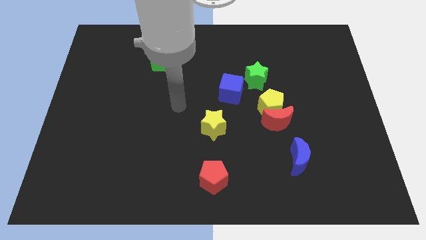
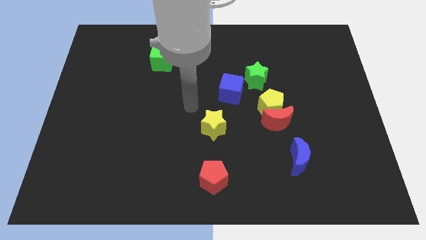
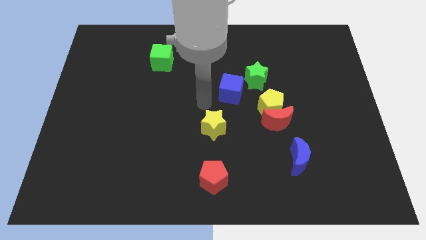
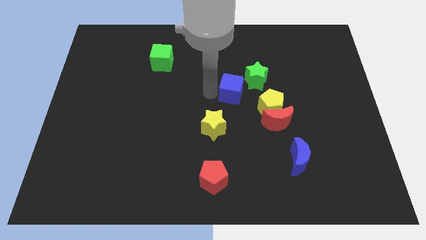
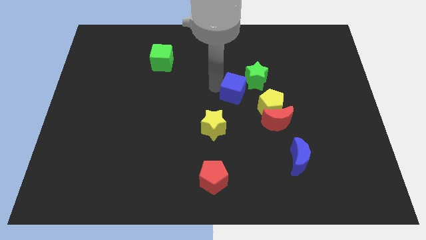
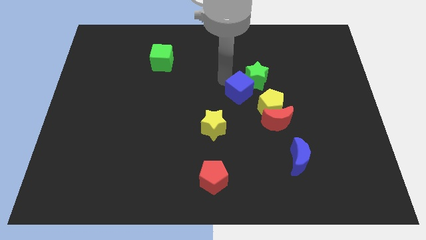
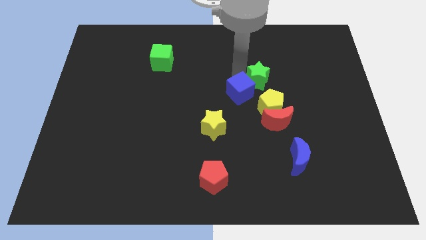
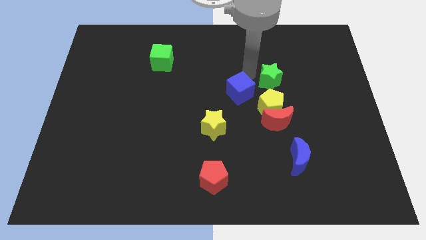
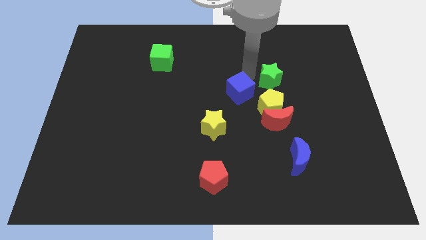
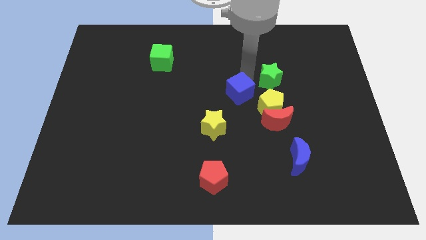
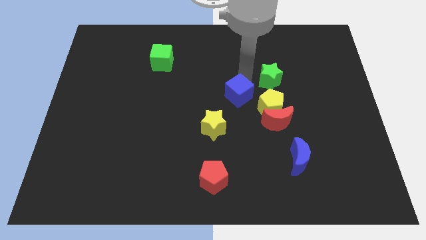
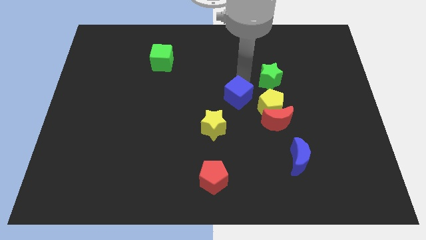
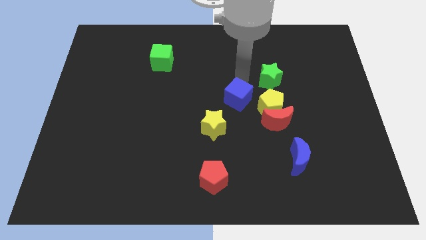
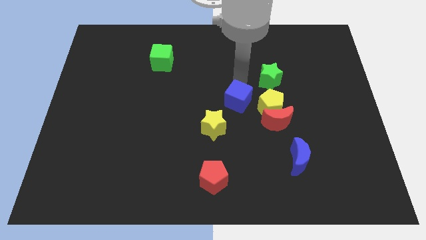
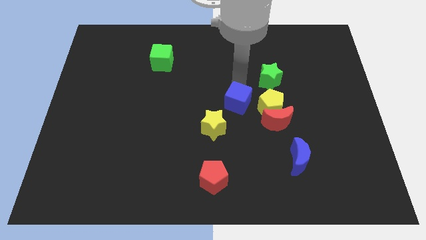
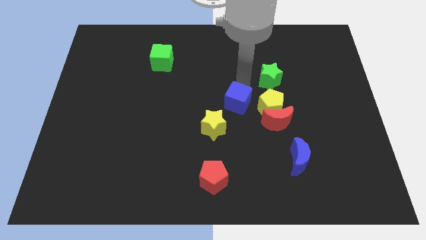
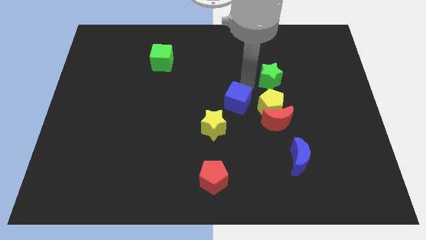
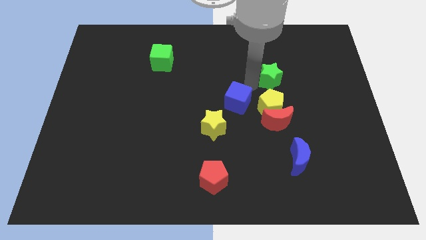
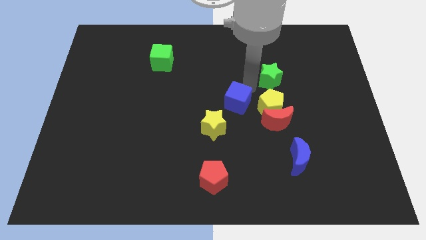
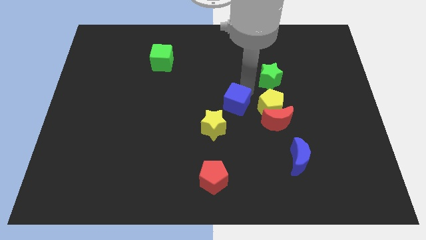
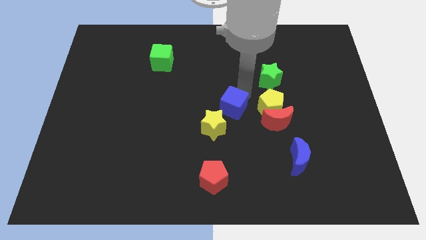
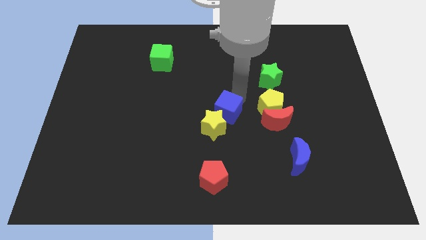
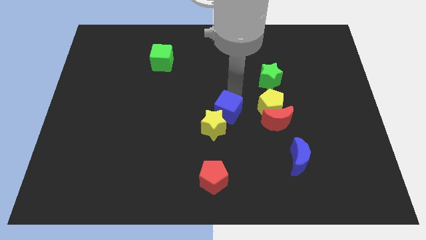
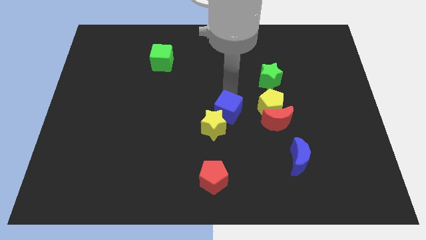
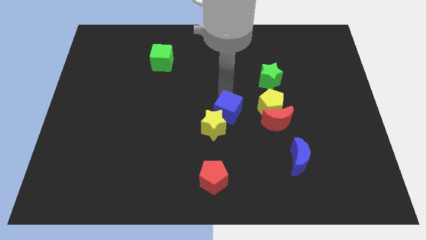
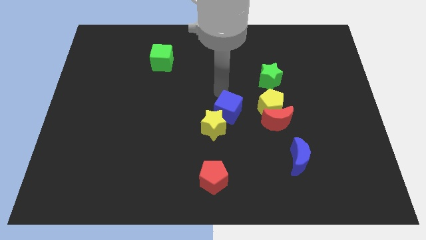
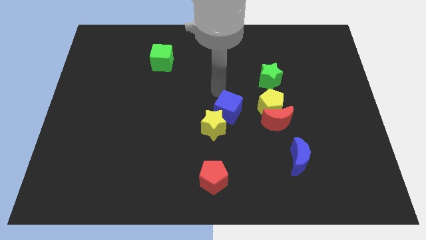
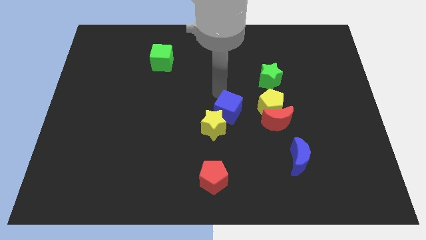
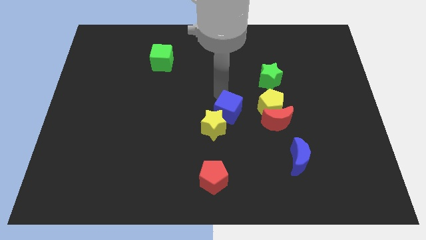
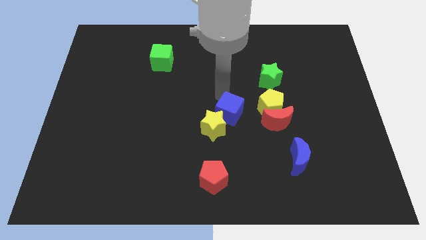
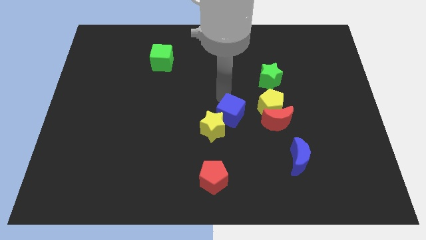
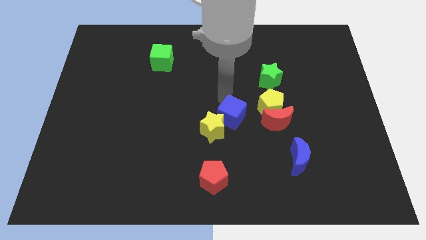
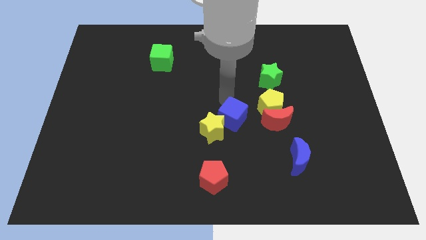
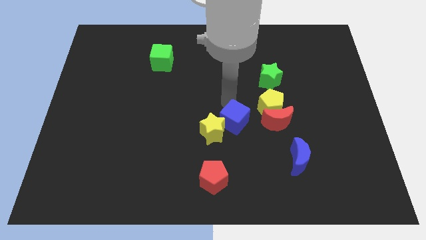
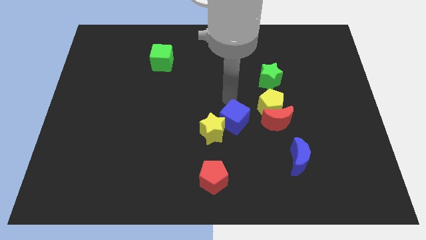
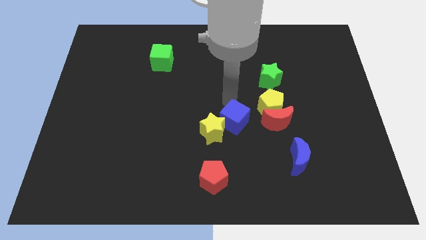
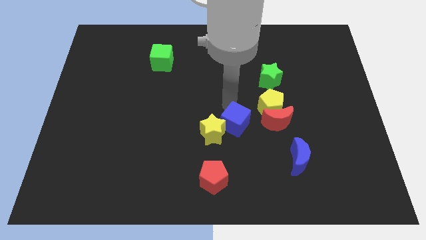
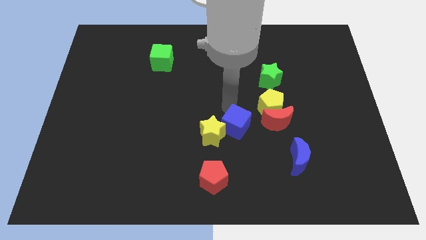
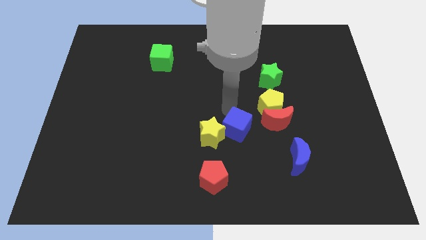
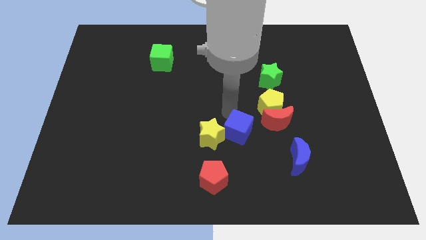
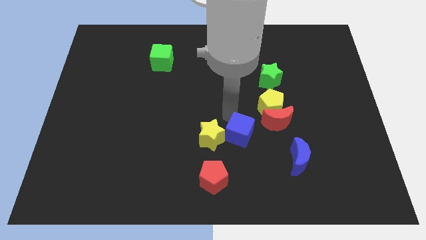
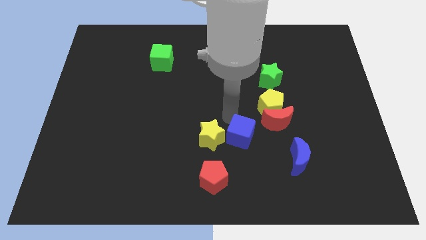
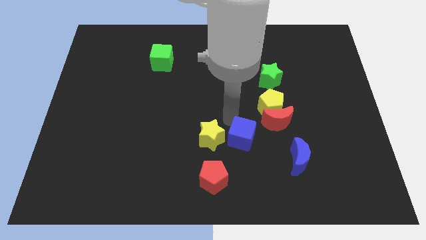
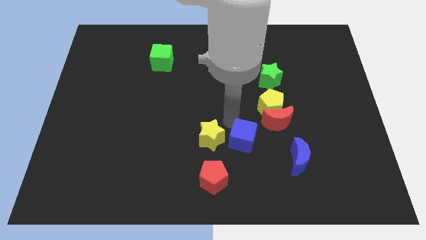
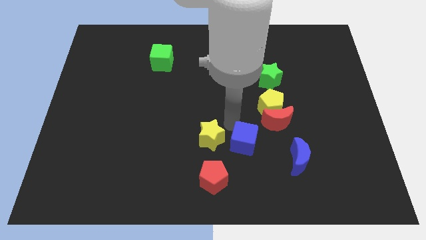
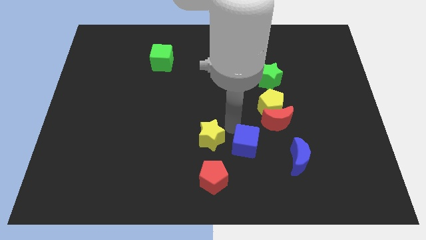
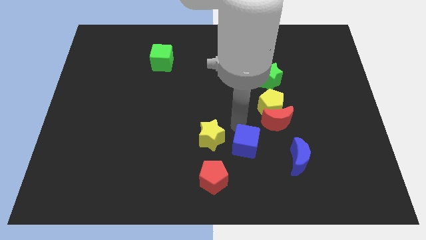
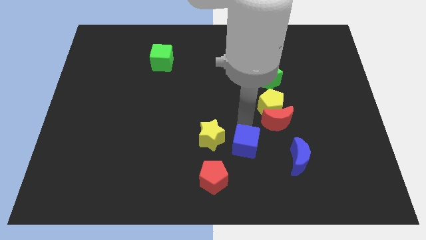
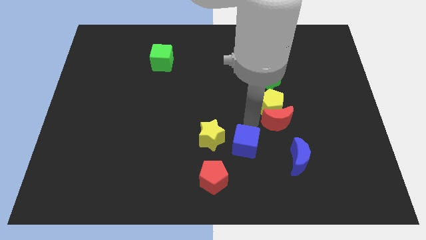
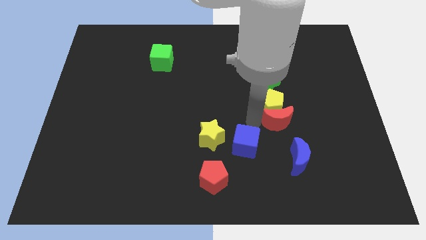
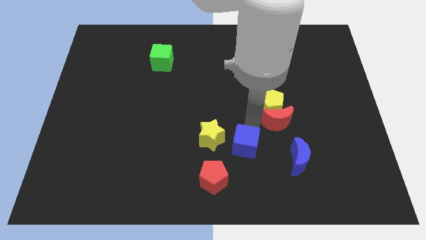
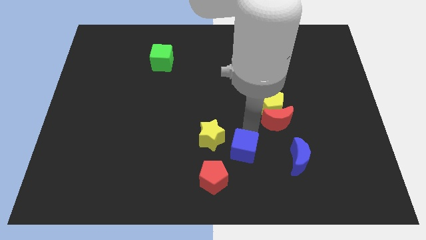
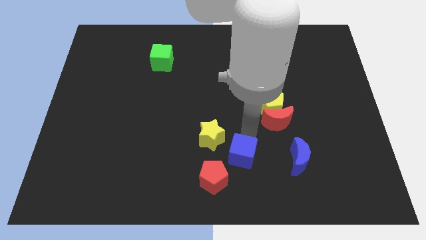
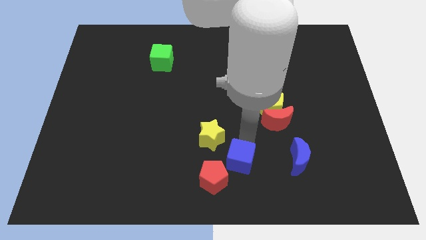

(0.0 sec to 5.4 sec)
slide the blue cube to the bottom

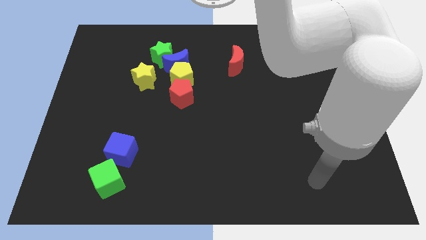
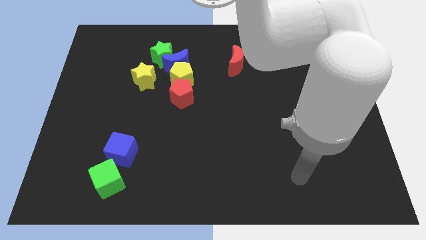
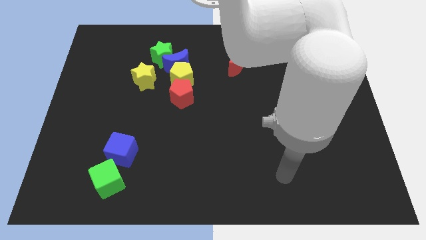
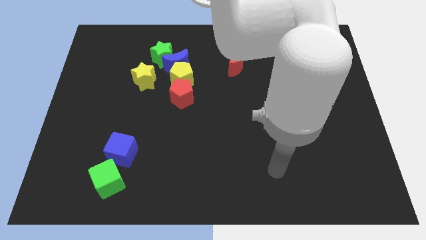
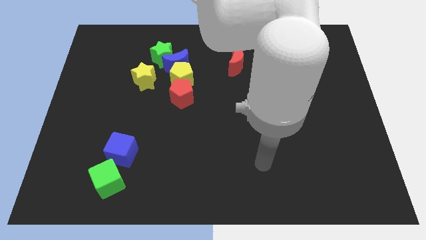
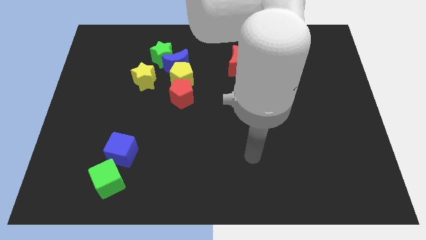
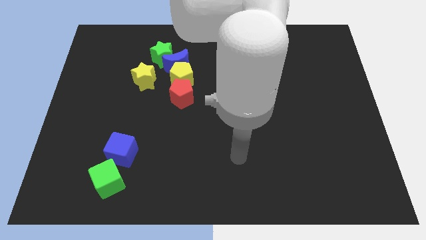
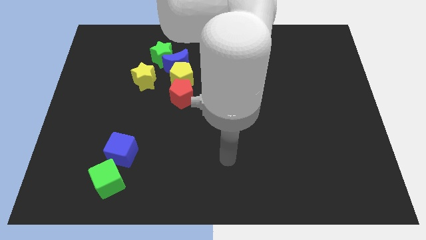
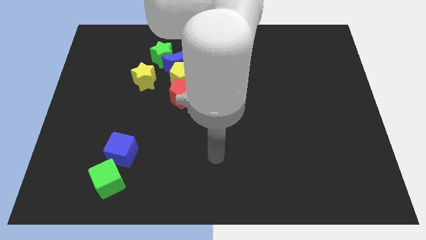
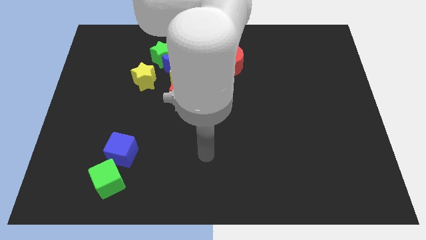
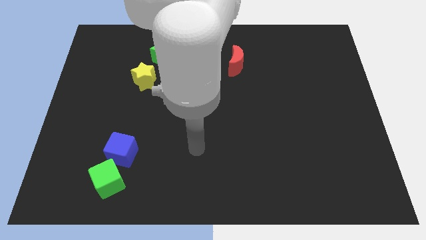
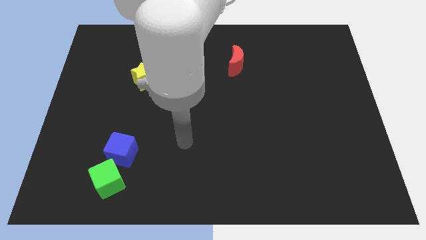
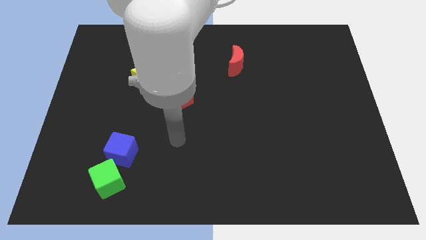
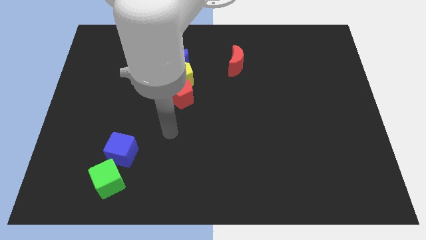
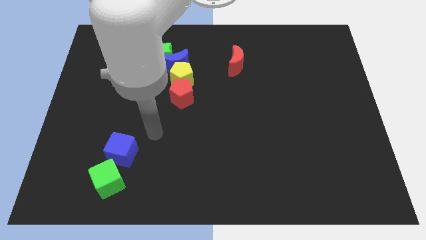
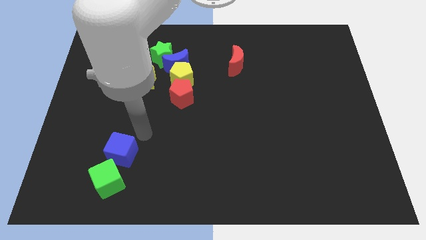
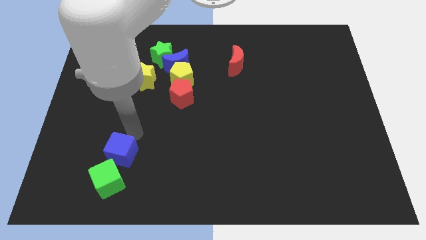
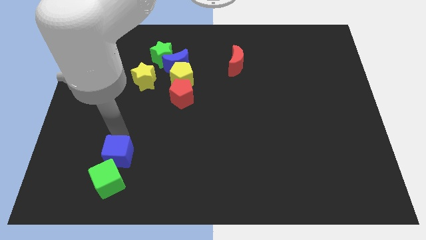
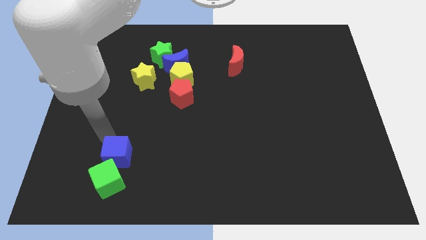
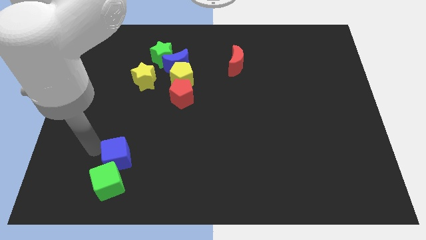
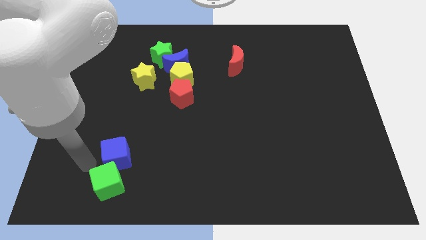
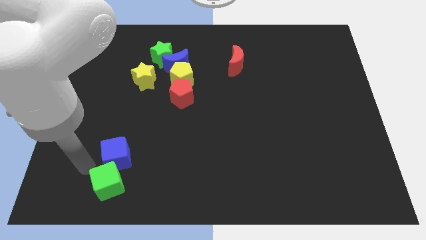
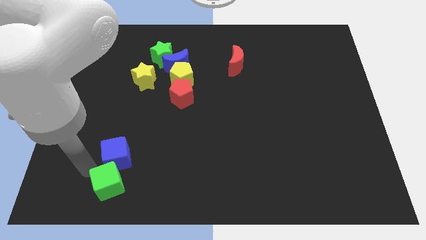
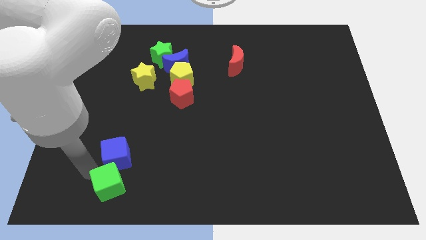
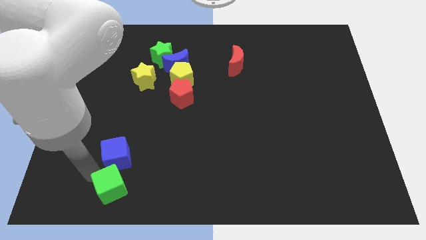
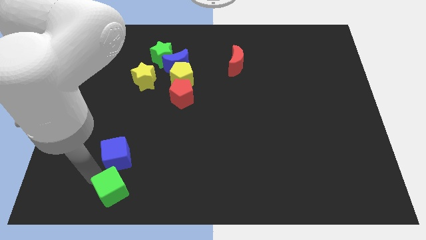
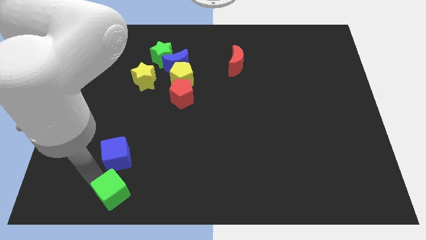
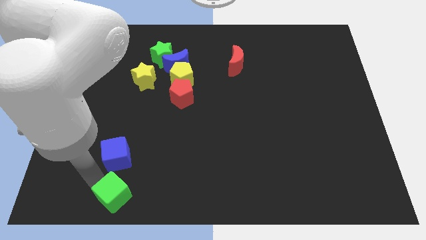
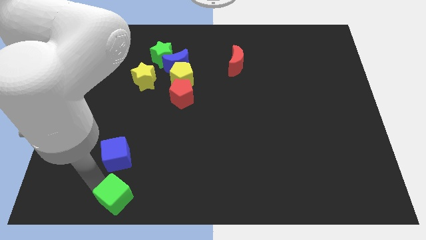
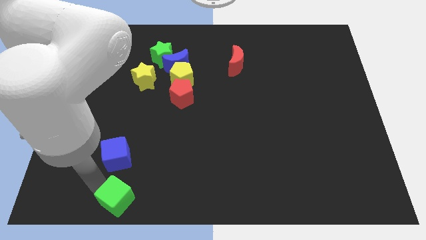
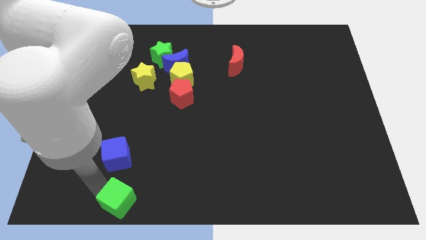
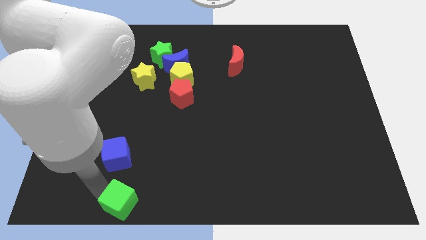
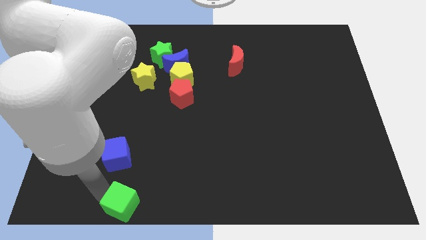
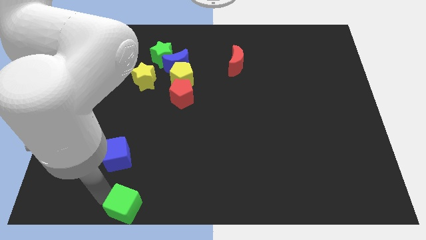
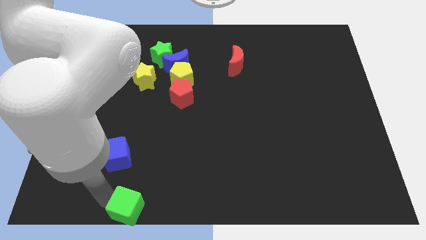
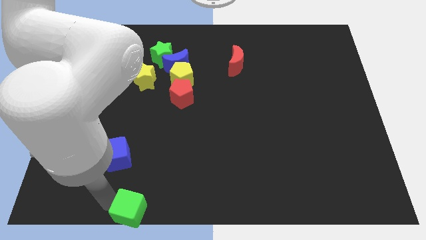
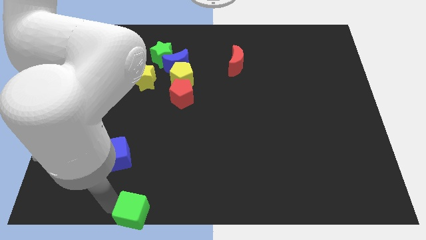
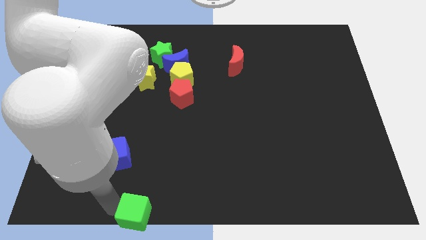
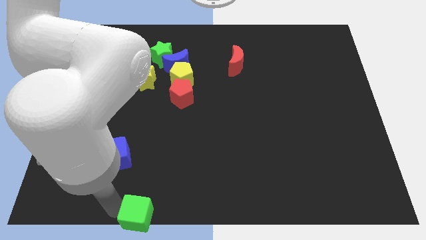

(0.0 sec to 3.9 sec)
put the green cube to the bottom
